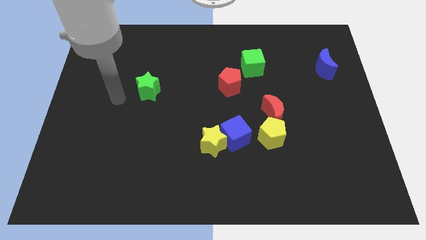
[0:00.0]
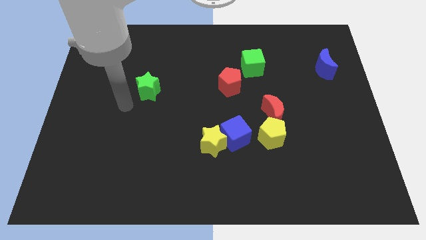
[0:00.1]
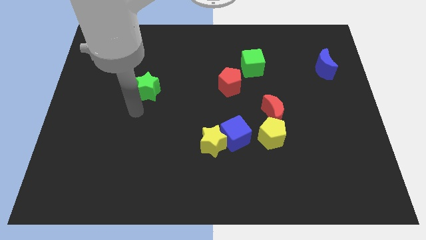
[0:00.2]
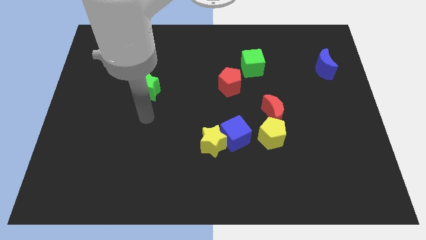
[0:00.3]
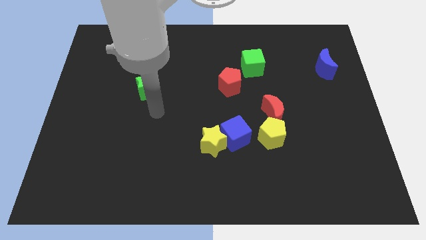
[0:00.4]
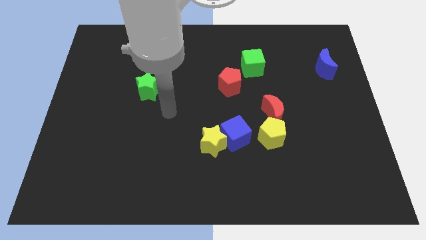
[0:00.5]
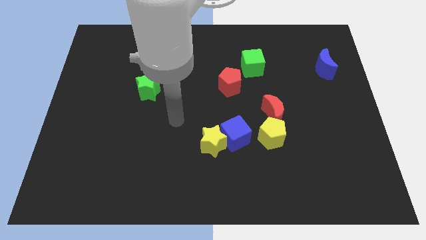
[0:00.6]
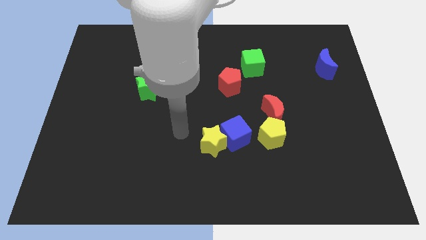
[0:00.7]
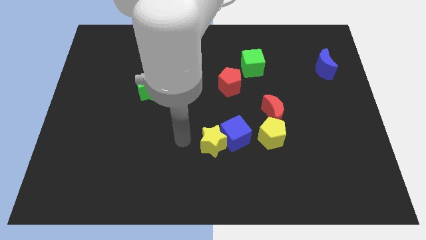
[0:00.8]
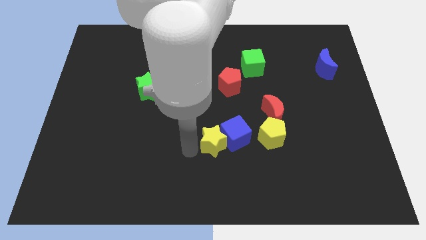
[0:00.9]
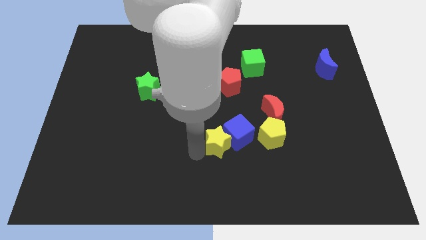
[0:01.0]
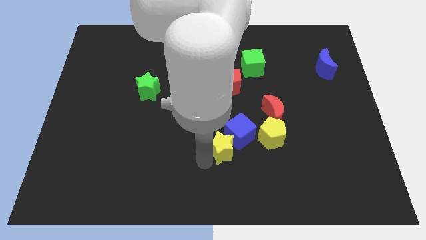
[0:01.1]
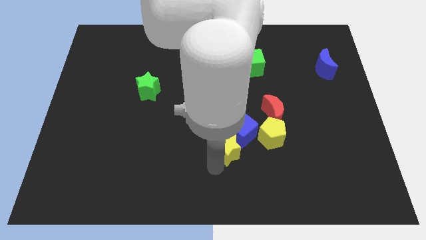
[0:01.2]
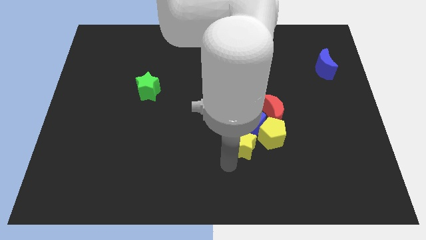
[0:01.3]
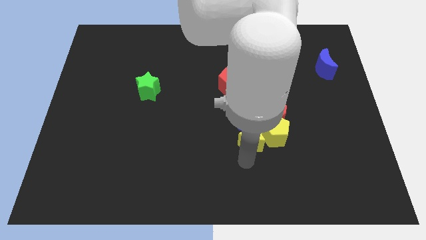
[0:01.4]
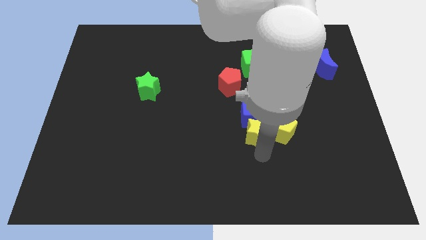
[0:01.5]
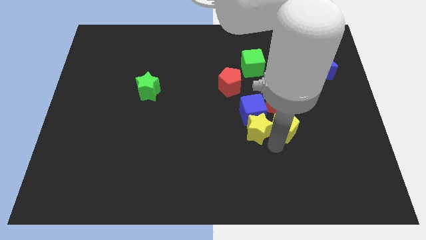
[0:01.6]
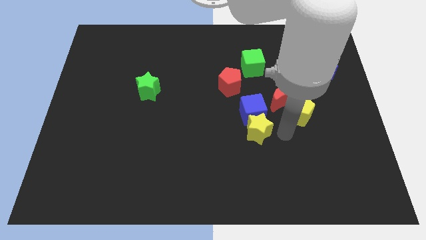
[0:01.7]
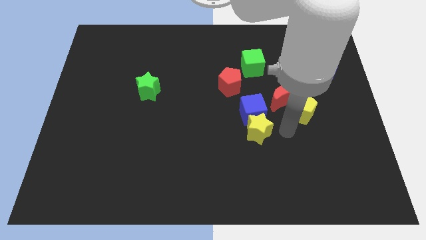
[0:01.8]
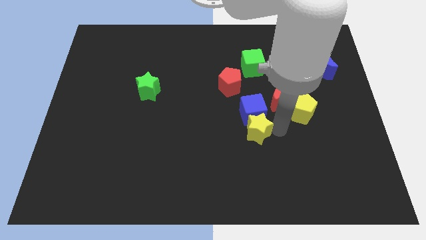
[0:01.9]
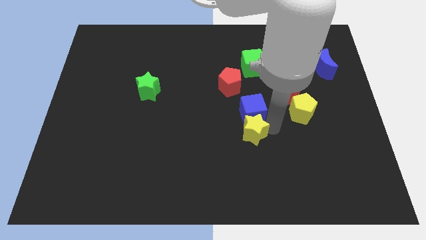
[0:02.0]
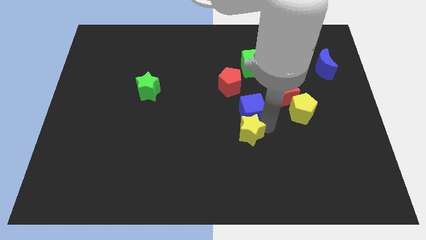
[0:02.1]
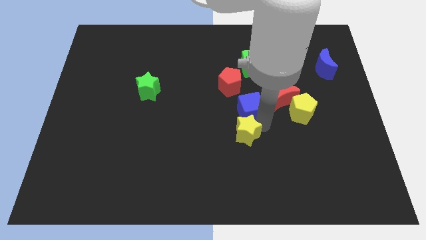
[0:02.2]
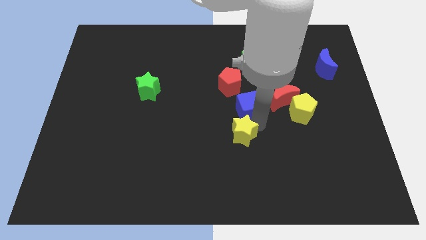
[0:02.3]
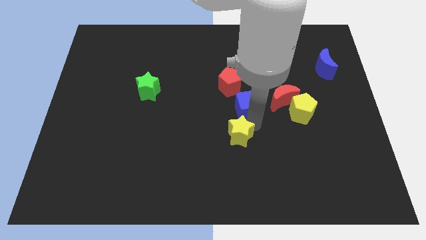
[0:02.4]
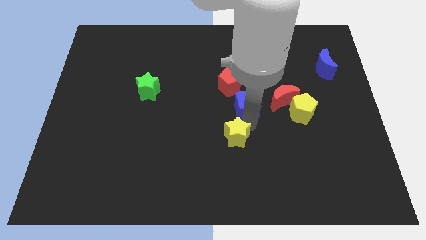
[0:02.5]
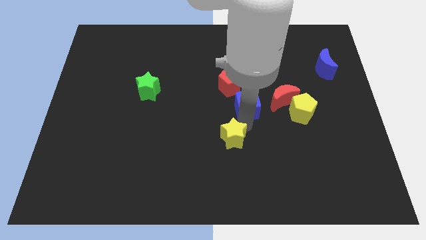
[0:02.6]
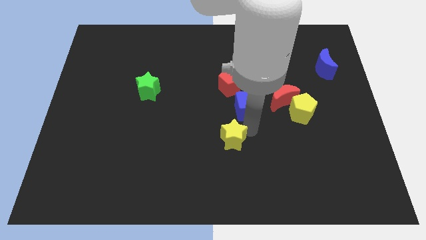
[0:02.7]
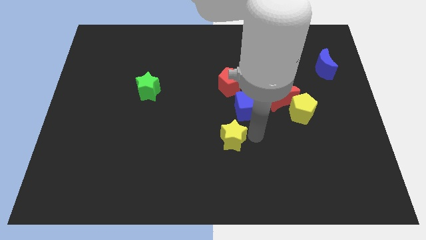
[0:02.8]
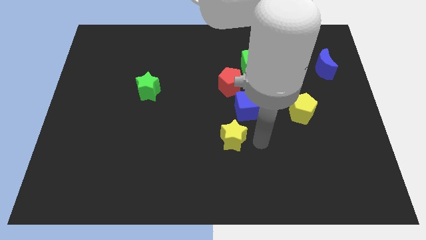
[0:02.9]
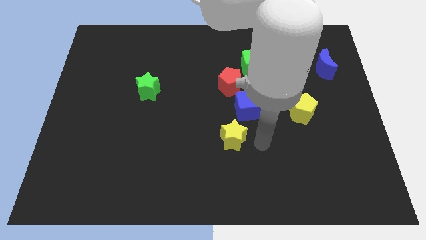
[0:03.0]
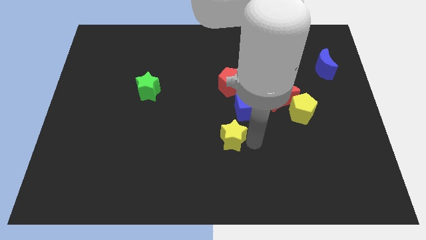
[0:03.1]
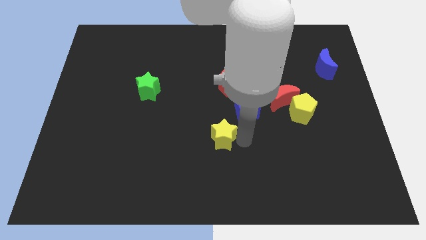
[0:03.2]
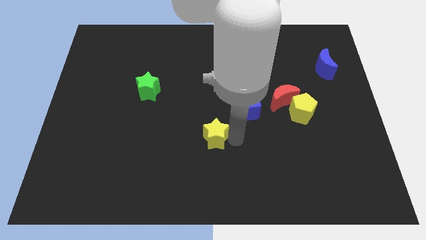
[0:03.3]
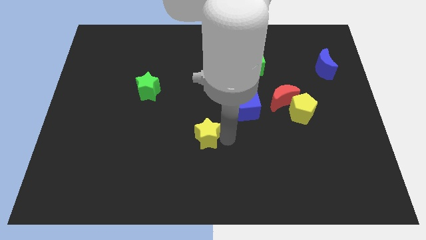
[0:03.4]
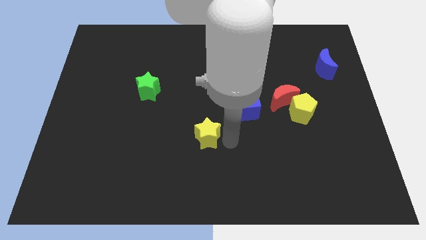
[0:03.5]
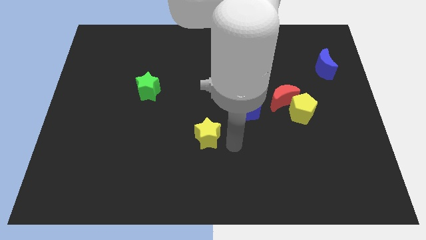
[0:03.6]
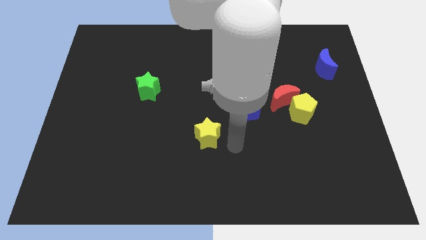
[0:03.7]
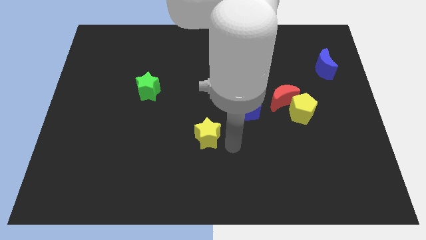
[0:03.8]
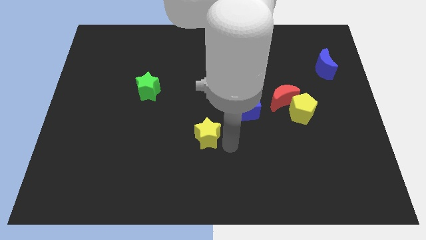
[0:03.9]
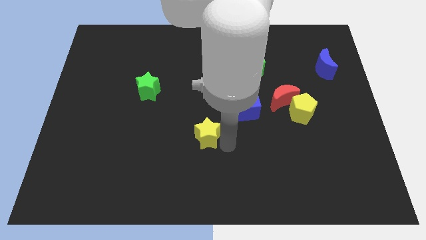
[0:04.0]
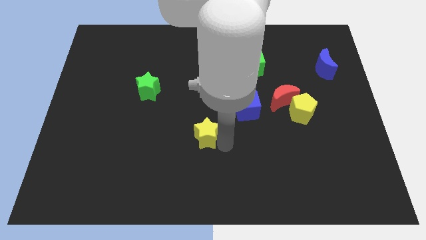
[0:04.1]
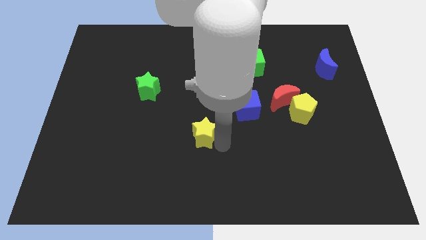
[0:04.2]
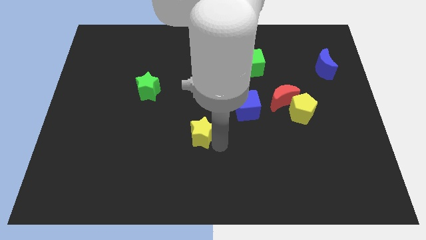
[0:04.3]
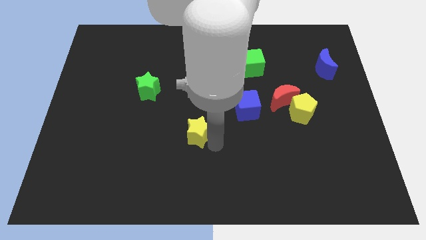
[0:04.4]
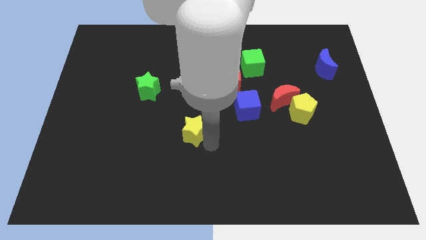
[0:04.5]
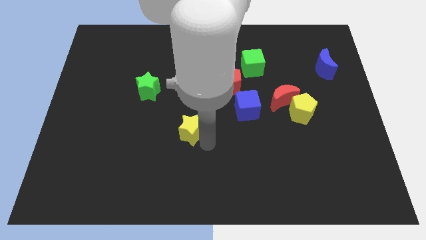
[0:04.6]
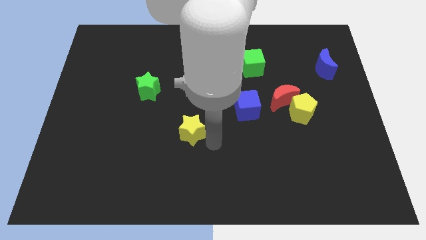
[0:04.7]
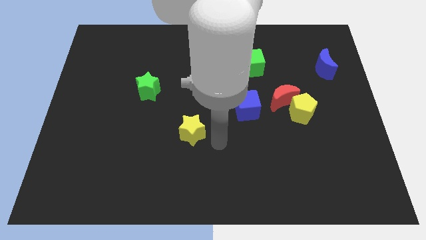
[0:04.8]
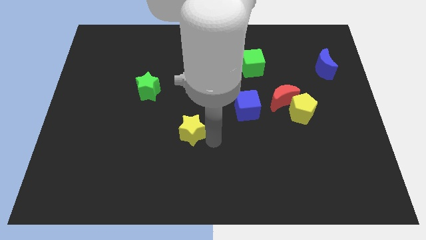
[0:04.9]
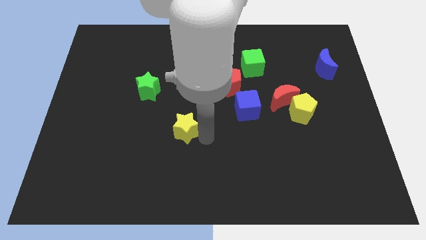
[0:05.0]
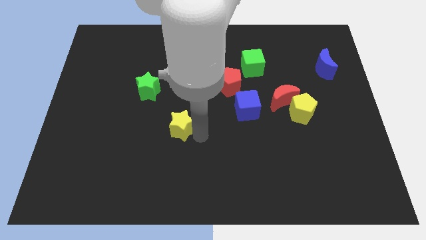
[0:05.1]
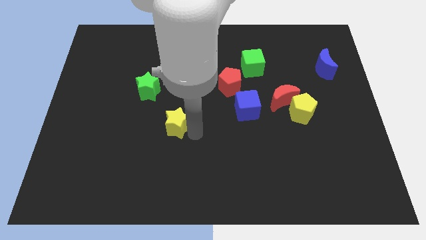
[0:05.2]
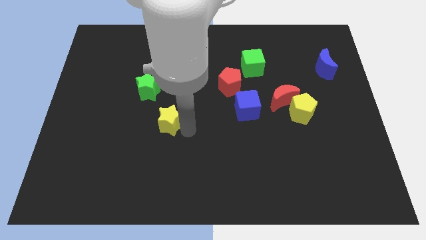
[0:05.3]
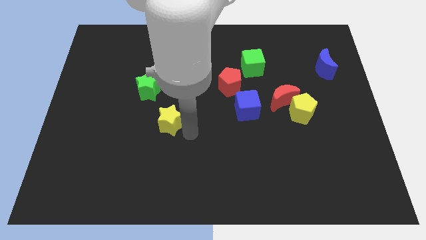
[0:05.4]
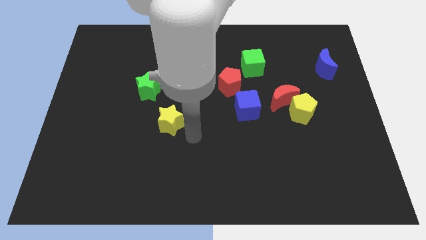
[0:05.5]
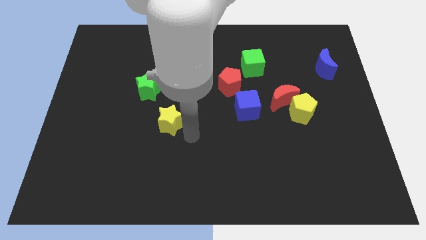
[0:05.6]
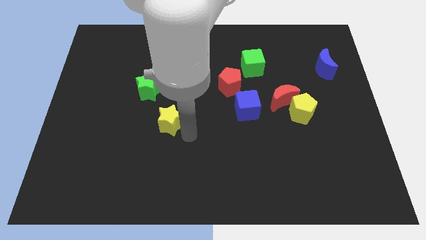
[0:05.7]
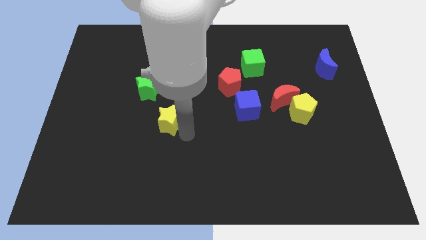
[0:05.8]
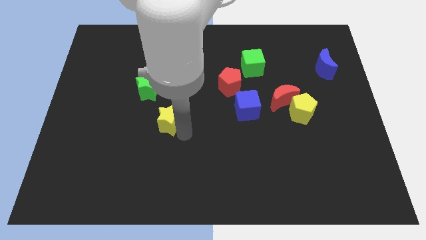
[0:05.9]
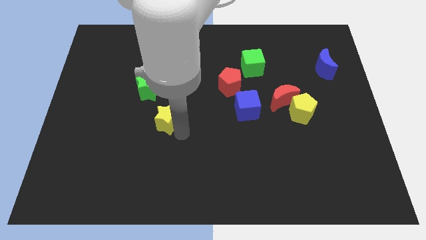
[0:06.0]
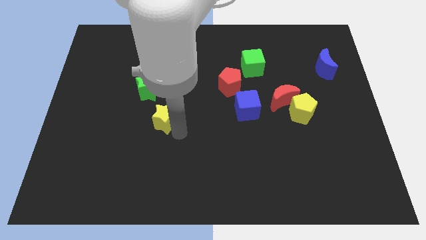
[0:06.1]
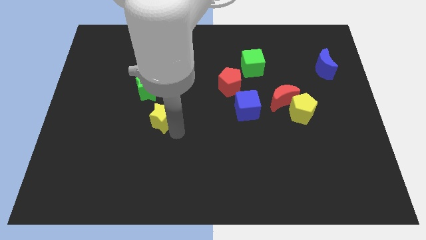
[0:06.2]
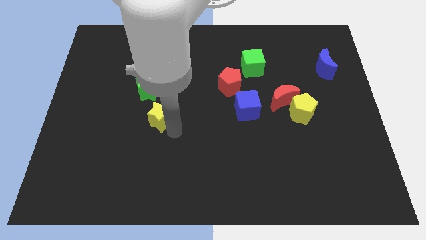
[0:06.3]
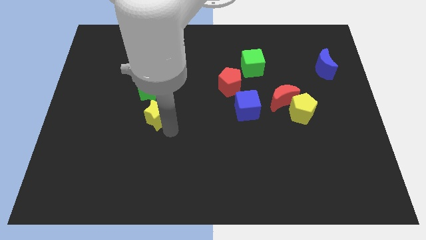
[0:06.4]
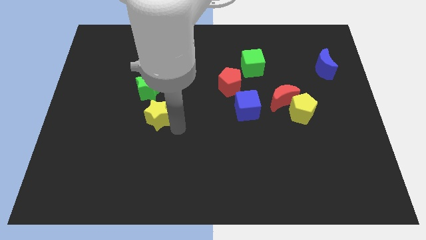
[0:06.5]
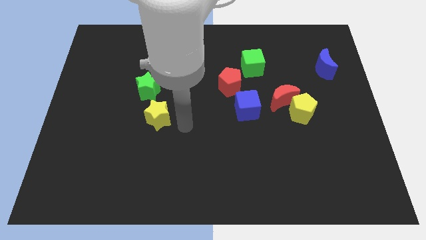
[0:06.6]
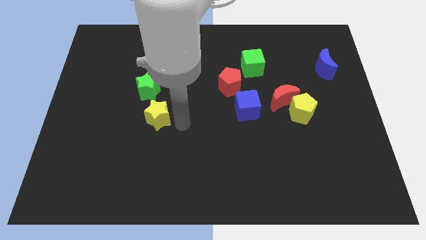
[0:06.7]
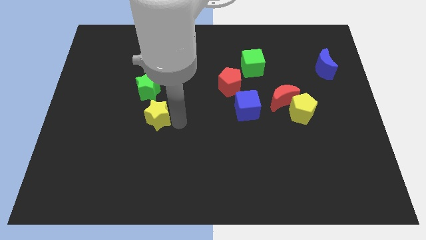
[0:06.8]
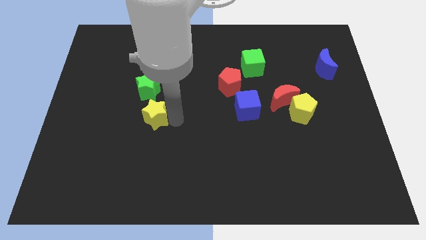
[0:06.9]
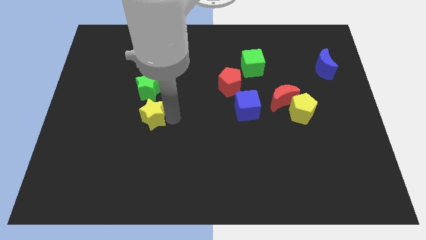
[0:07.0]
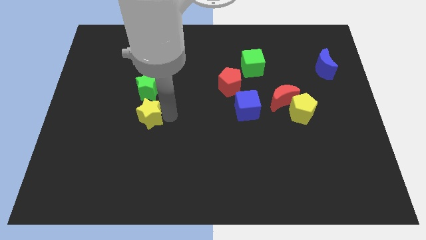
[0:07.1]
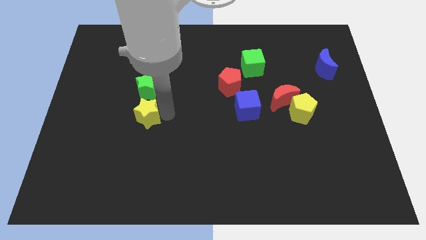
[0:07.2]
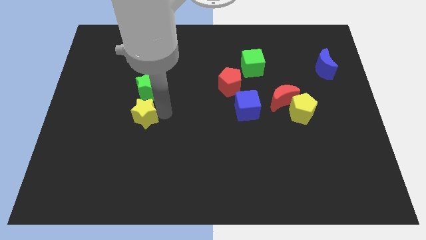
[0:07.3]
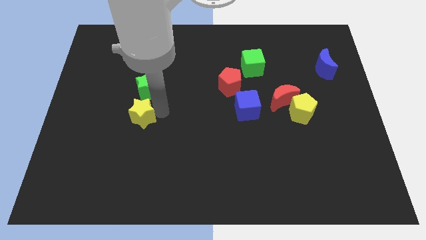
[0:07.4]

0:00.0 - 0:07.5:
push the yellow star to the bottom left of the green star
